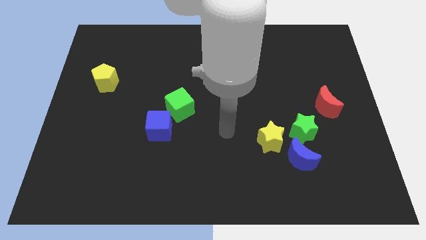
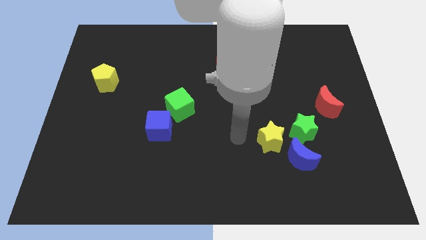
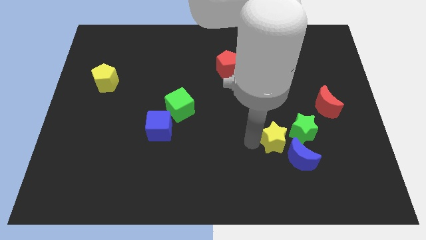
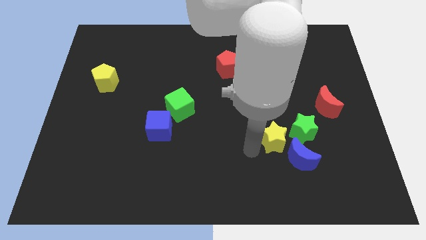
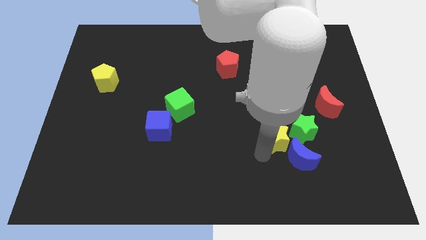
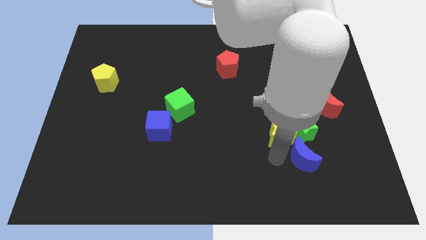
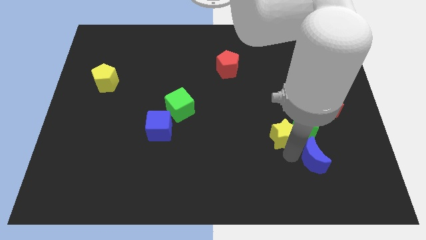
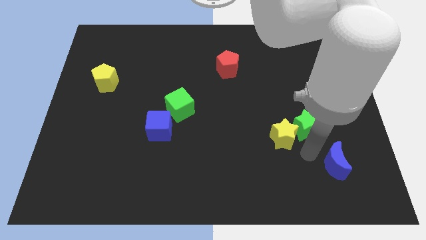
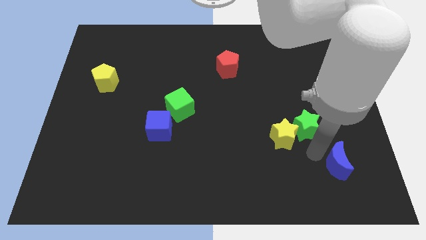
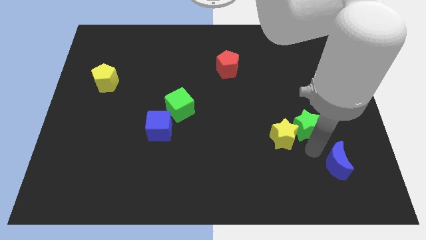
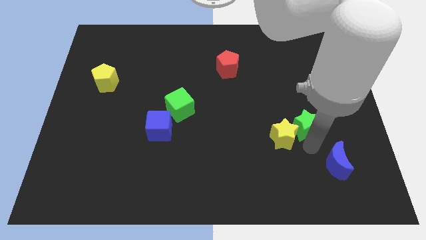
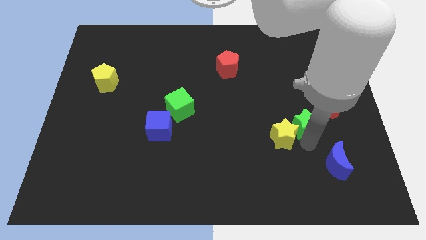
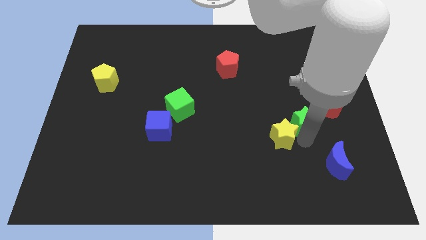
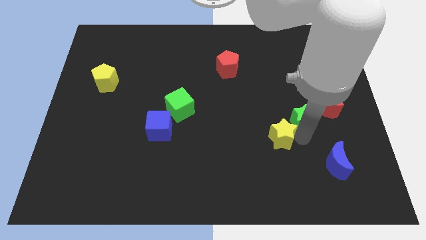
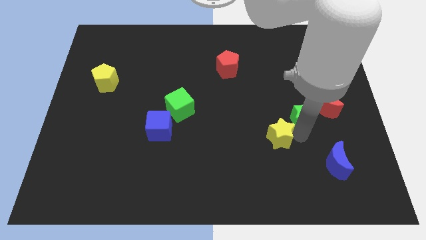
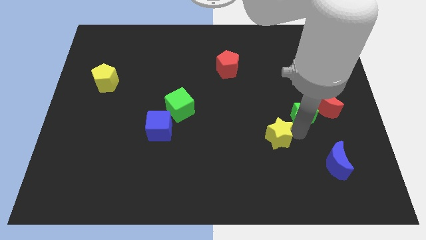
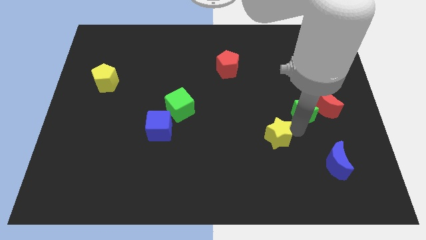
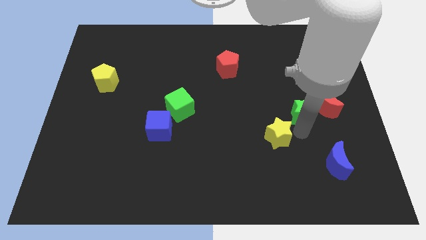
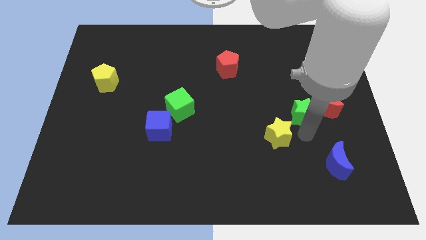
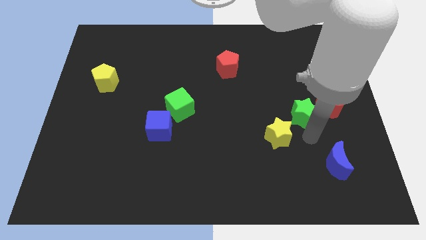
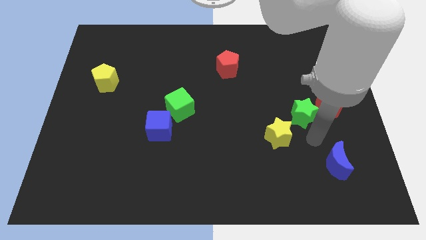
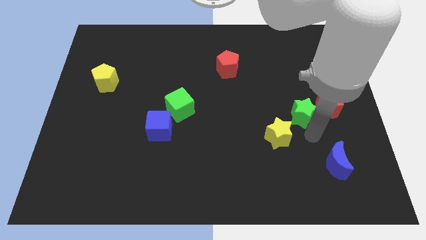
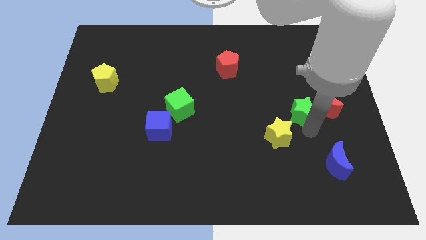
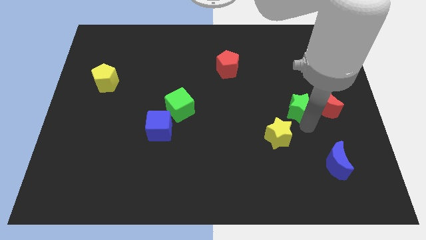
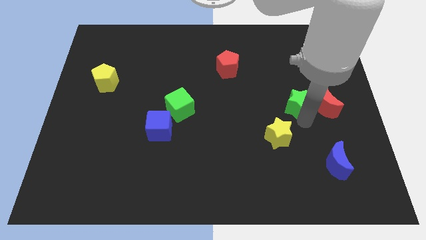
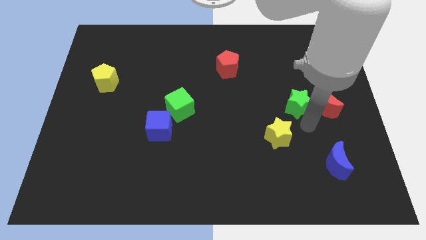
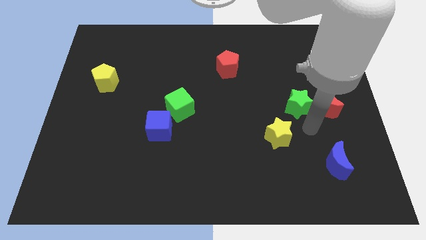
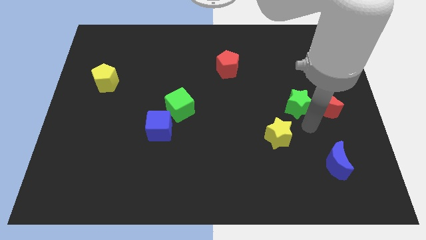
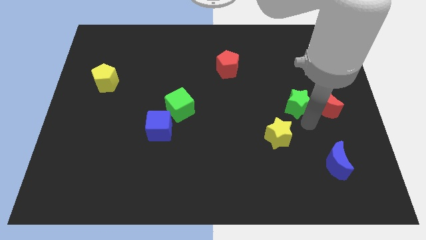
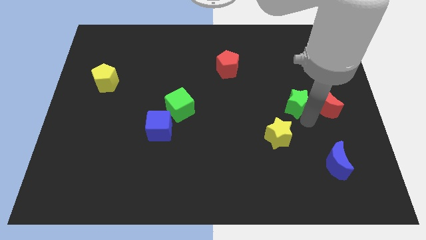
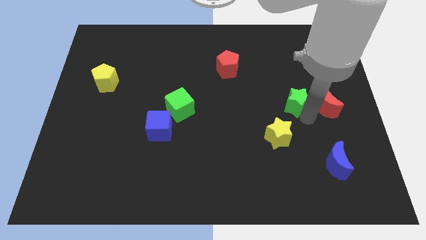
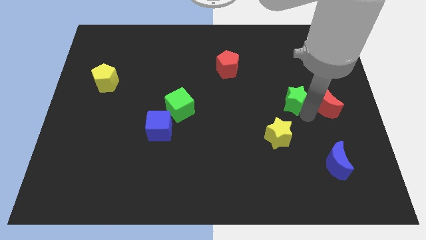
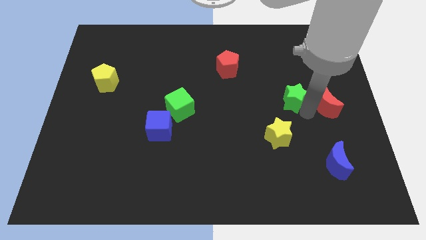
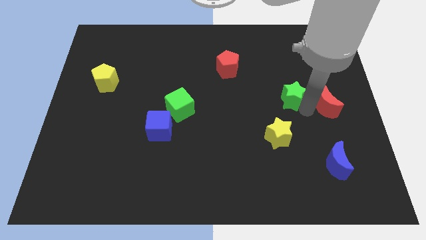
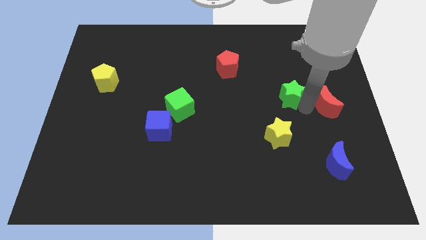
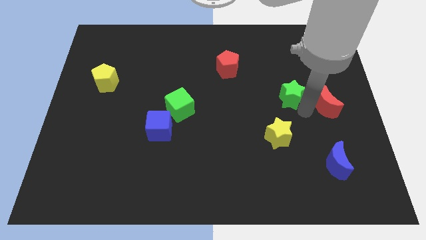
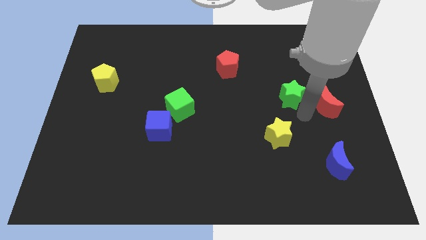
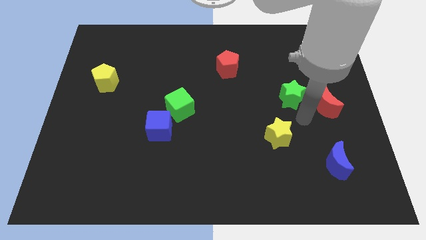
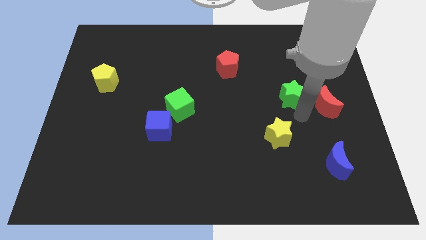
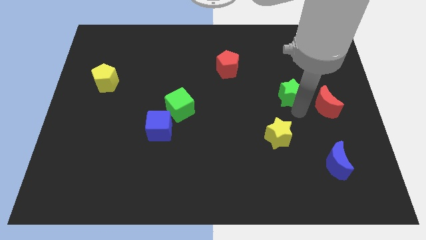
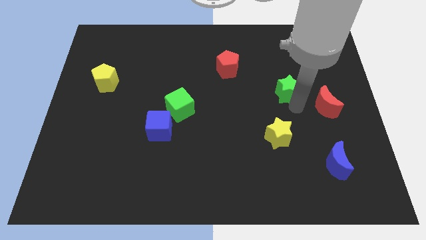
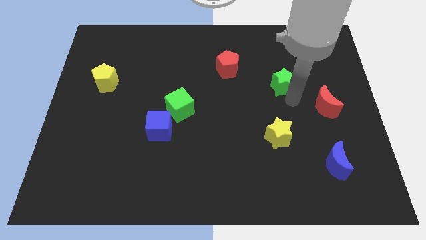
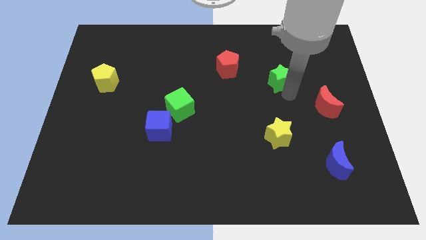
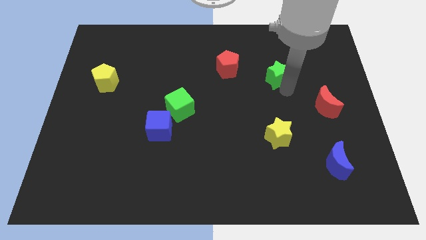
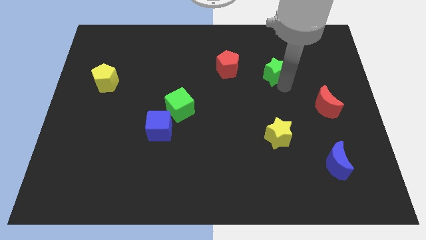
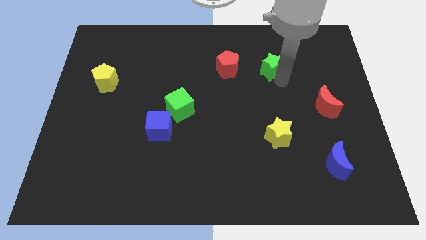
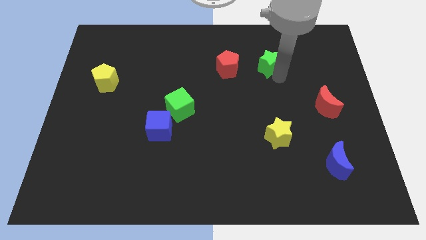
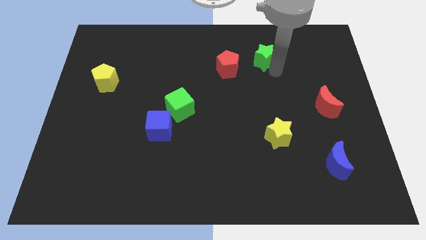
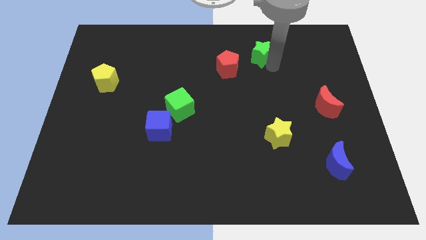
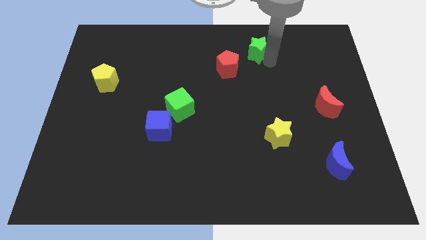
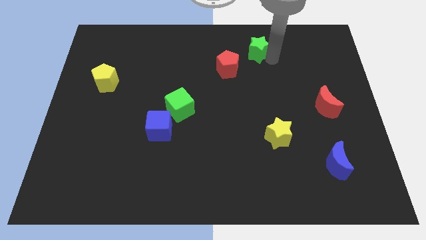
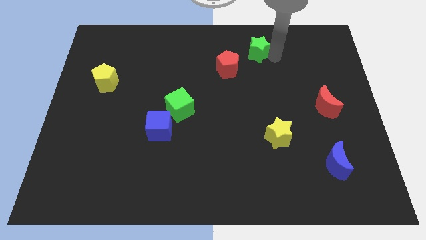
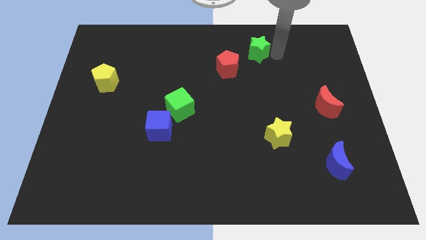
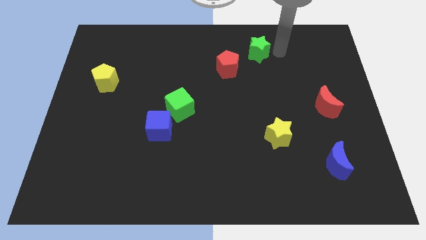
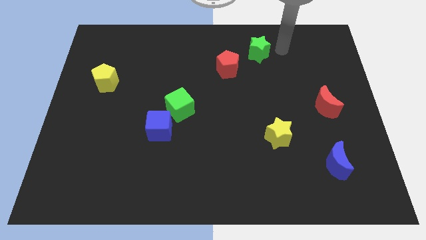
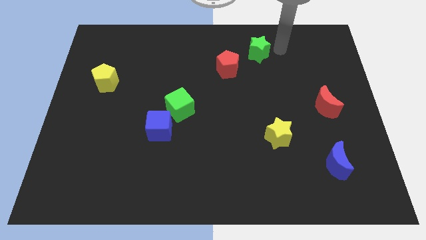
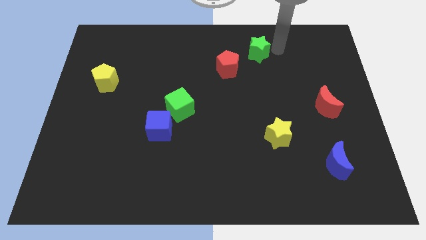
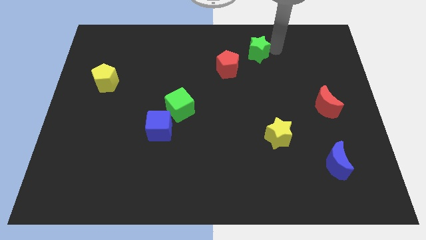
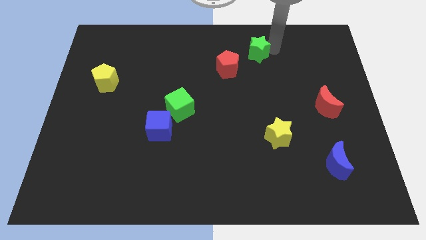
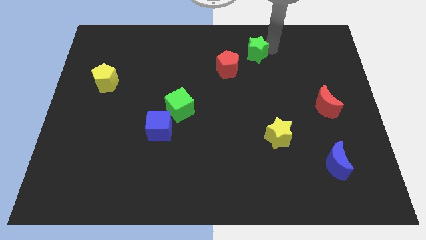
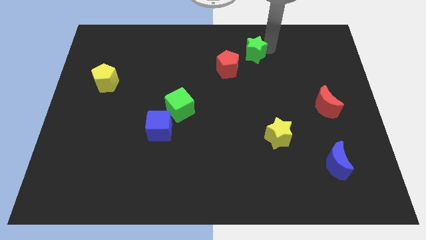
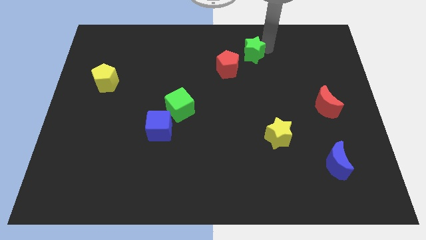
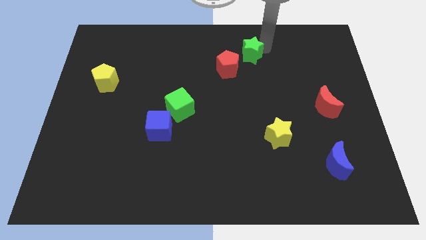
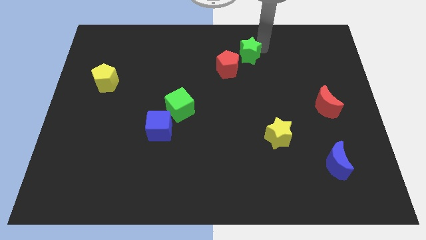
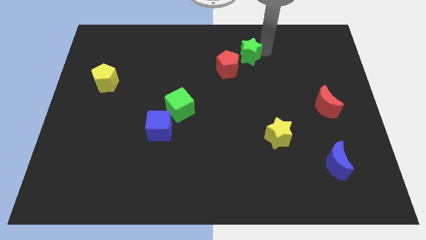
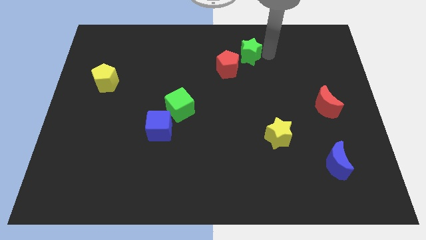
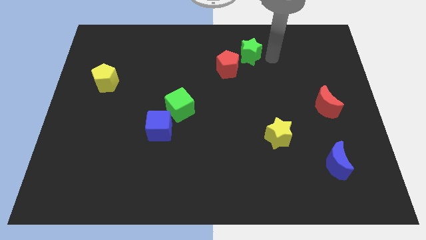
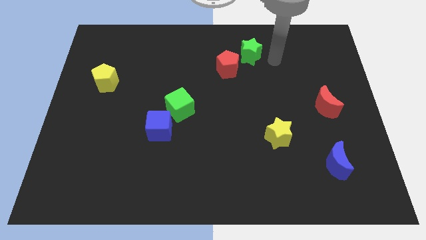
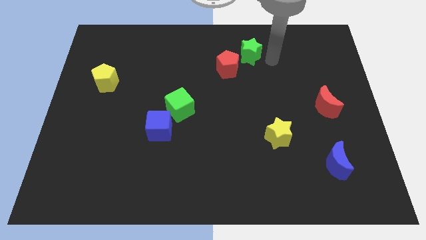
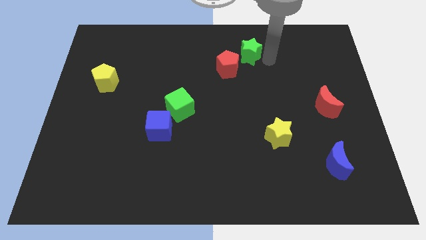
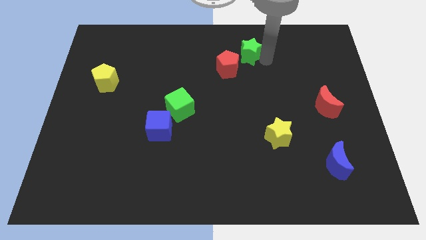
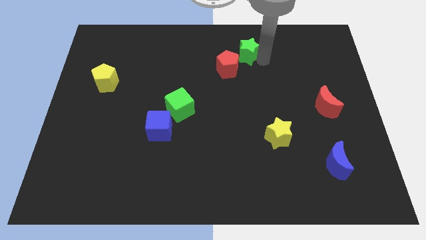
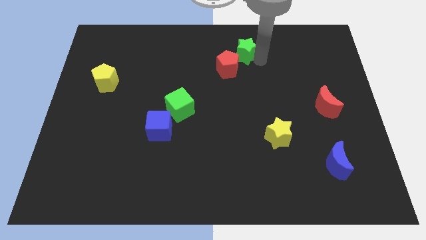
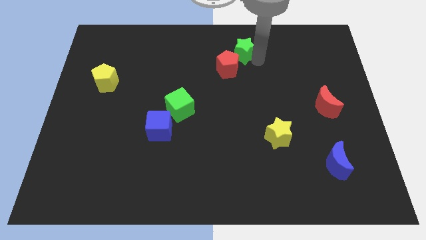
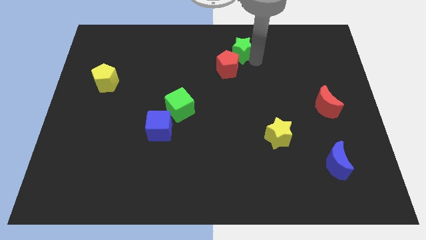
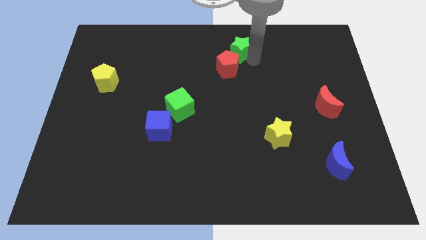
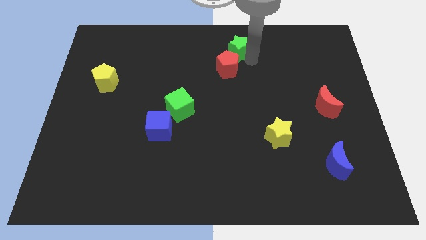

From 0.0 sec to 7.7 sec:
put the green star to the towards your base
